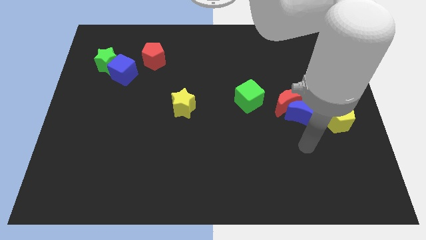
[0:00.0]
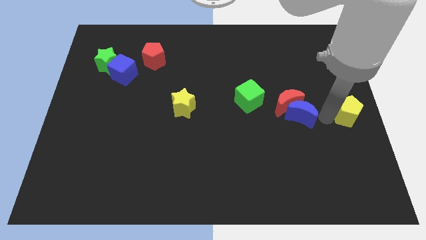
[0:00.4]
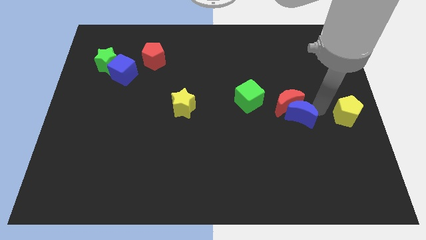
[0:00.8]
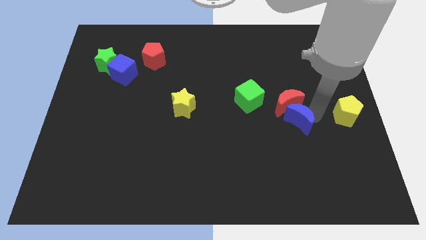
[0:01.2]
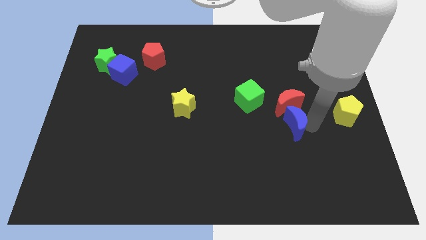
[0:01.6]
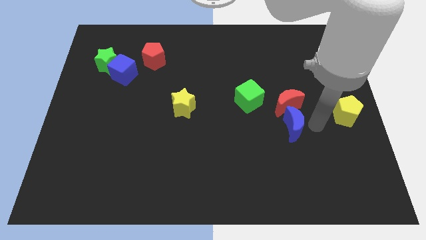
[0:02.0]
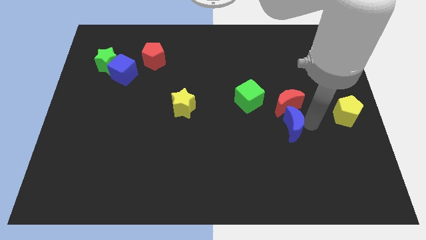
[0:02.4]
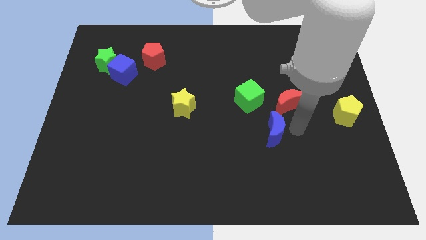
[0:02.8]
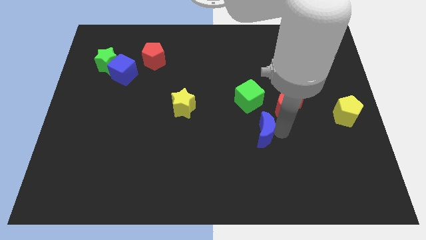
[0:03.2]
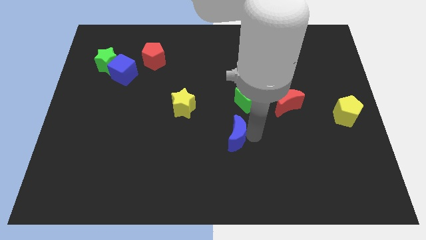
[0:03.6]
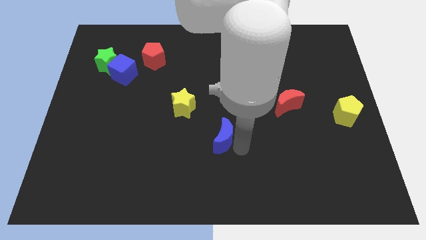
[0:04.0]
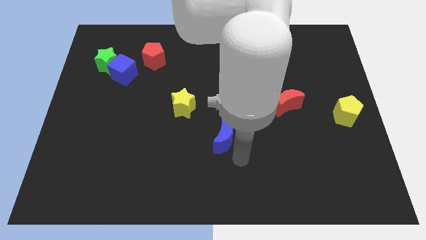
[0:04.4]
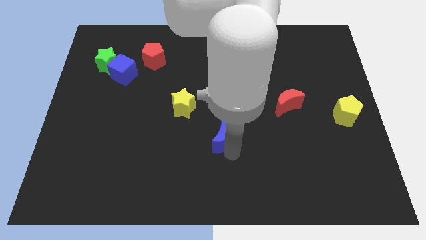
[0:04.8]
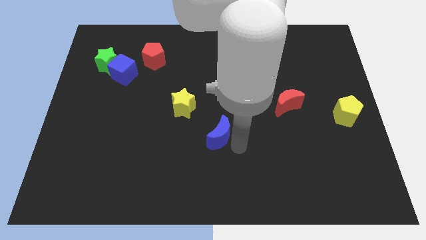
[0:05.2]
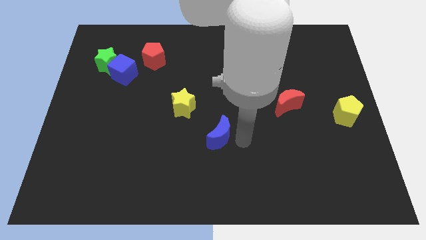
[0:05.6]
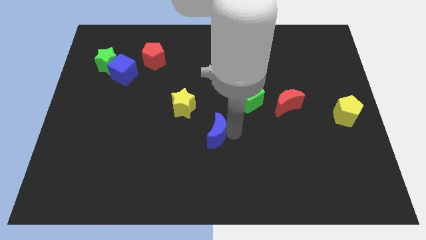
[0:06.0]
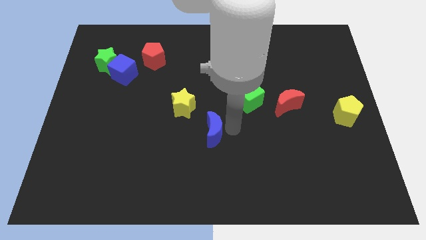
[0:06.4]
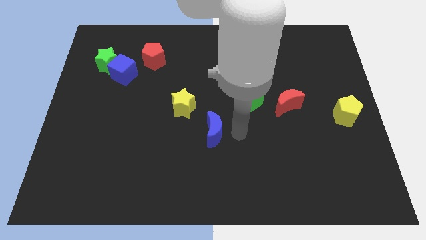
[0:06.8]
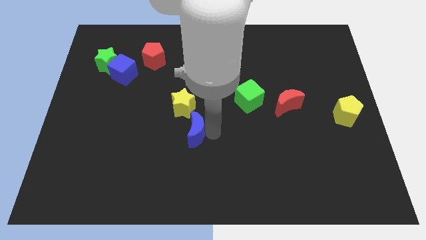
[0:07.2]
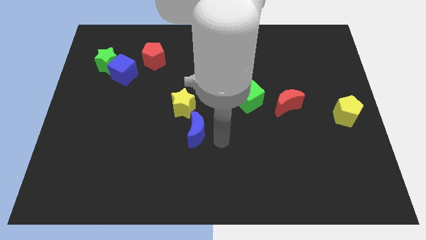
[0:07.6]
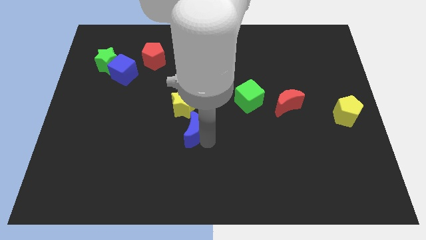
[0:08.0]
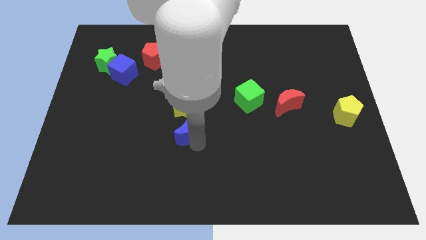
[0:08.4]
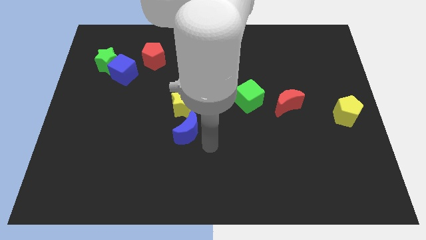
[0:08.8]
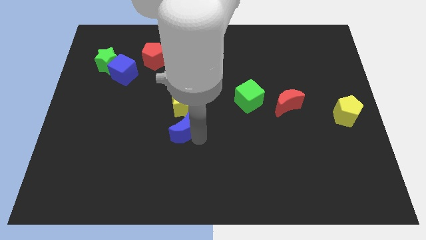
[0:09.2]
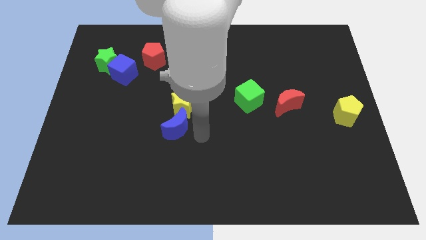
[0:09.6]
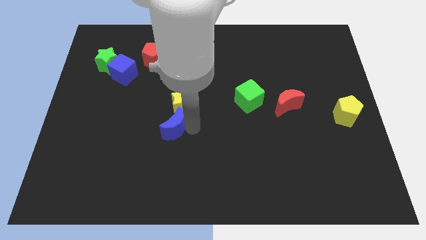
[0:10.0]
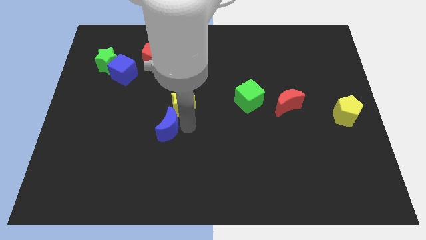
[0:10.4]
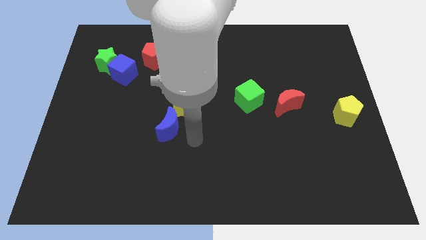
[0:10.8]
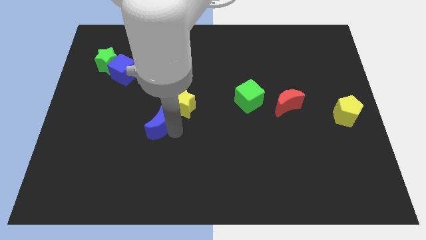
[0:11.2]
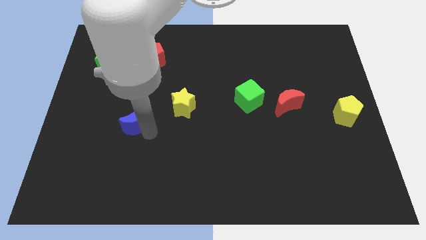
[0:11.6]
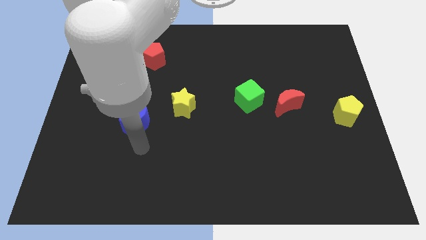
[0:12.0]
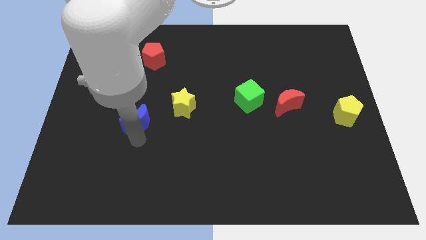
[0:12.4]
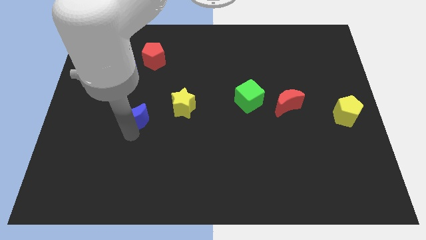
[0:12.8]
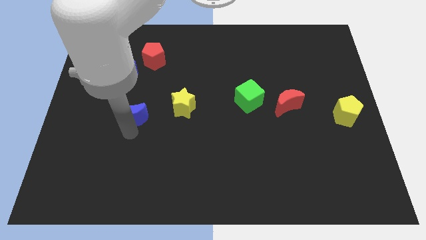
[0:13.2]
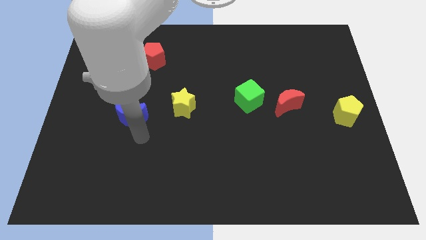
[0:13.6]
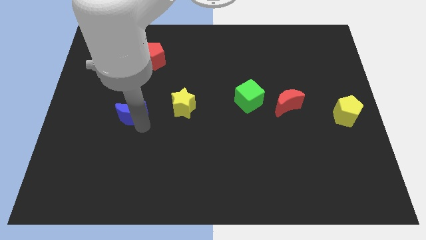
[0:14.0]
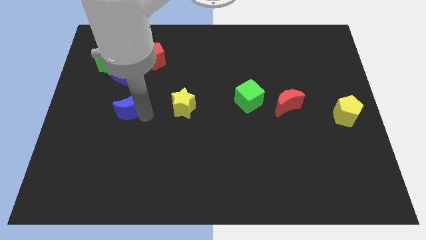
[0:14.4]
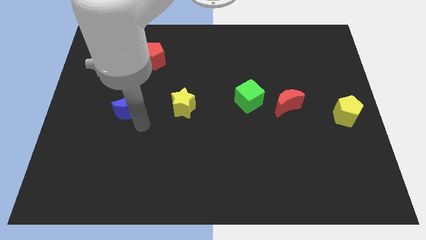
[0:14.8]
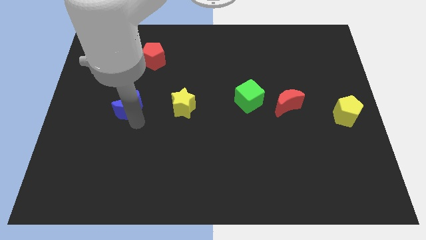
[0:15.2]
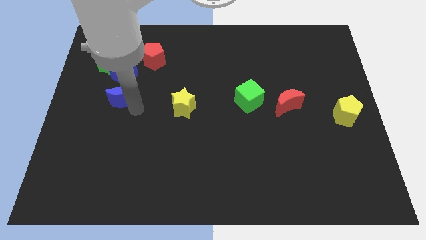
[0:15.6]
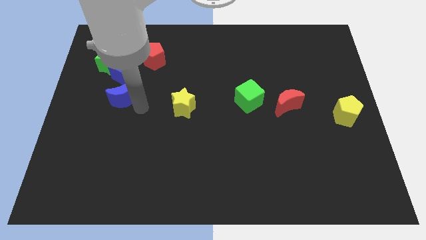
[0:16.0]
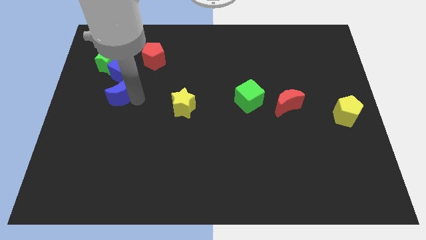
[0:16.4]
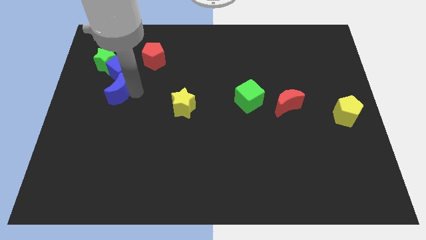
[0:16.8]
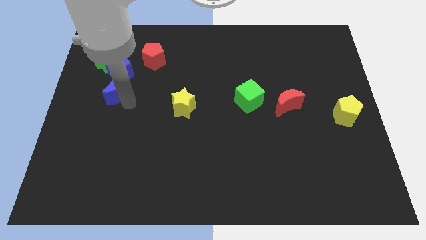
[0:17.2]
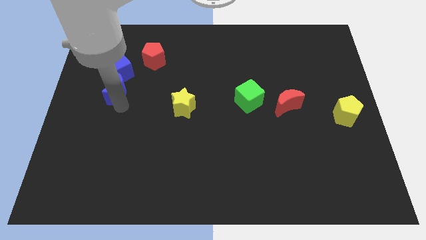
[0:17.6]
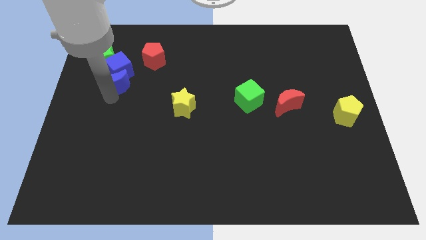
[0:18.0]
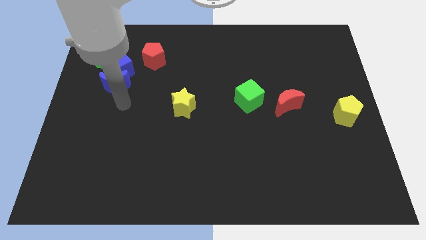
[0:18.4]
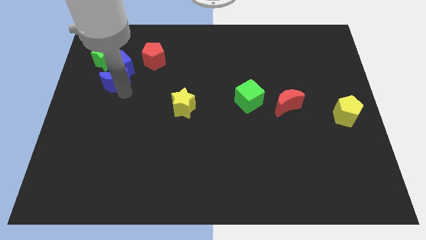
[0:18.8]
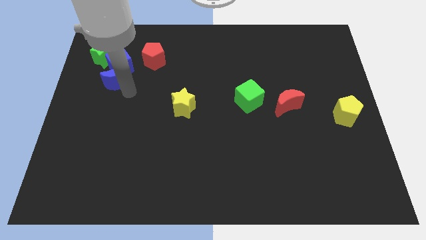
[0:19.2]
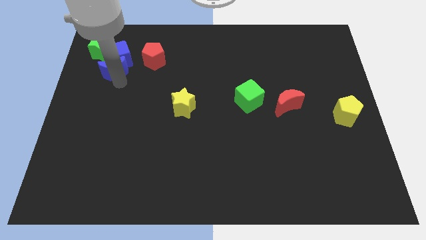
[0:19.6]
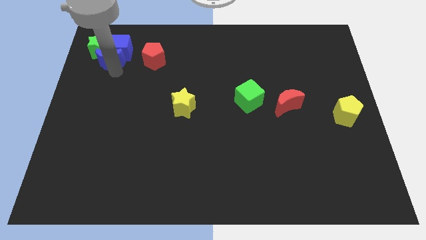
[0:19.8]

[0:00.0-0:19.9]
move the blue moon to the green star

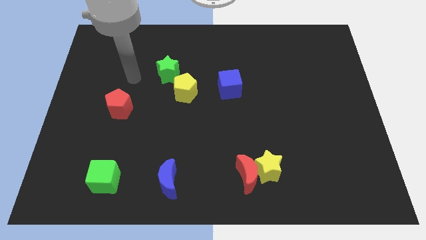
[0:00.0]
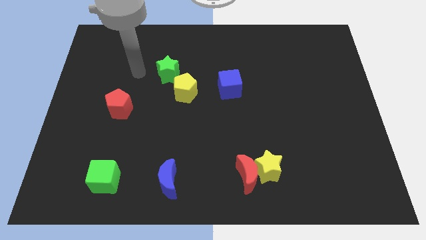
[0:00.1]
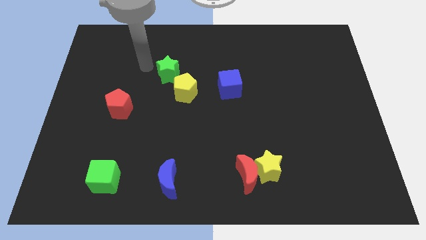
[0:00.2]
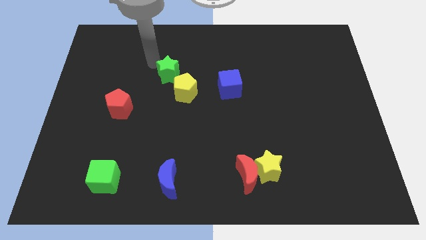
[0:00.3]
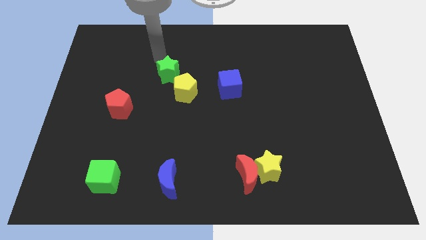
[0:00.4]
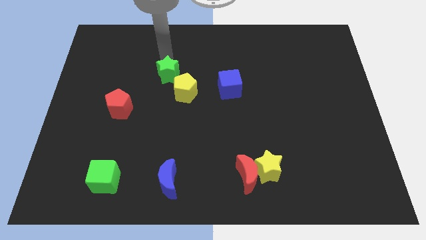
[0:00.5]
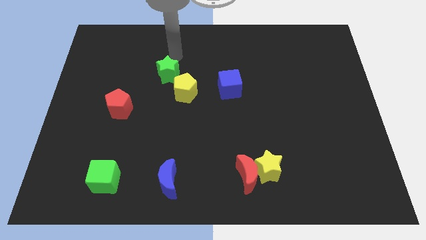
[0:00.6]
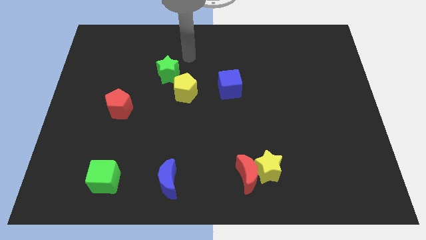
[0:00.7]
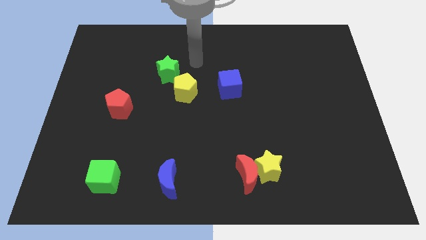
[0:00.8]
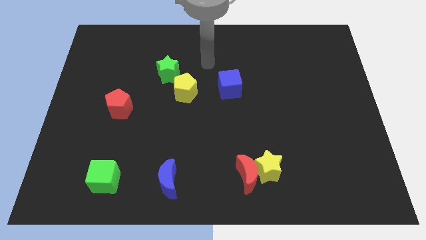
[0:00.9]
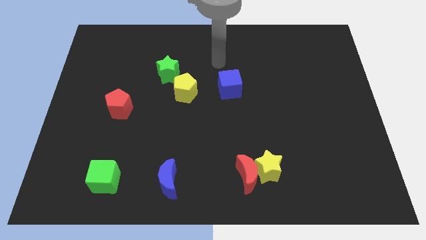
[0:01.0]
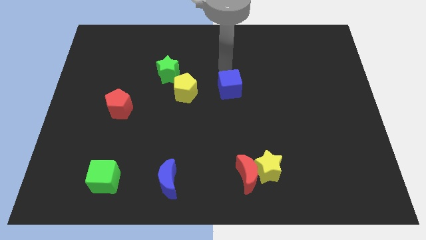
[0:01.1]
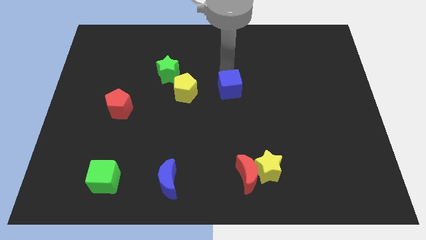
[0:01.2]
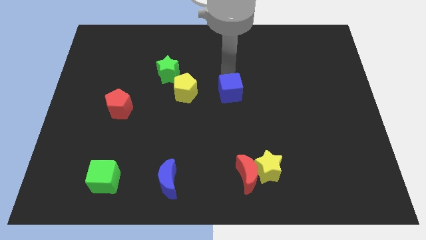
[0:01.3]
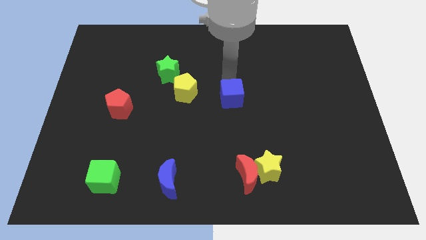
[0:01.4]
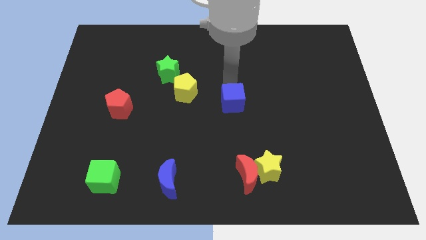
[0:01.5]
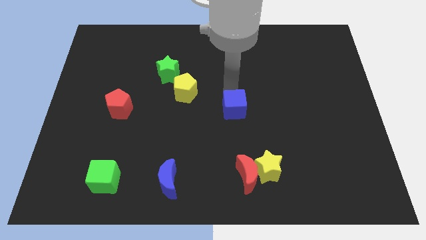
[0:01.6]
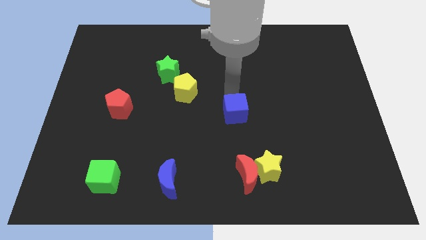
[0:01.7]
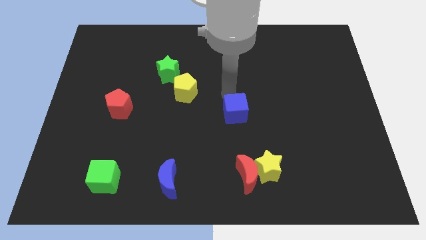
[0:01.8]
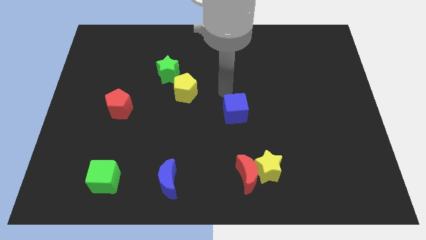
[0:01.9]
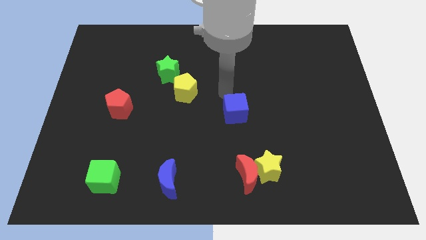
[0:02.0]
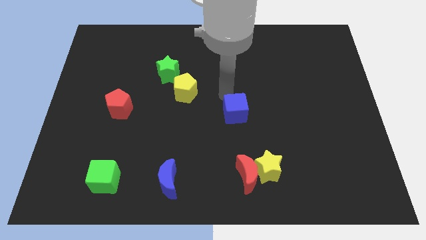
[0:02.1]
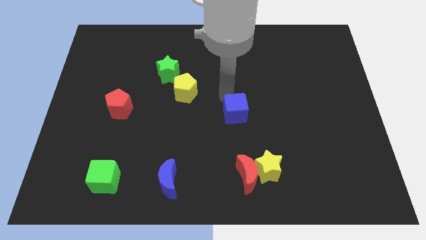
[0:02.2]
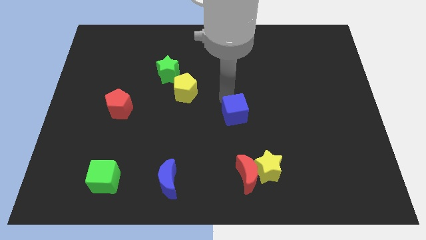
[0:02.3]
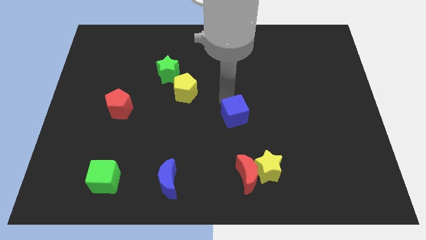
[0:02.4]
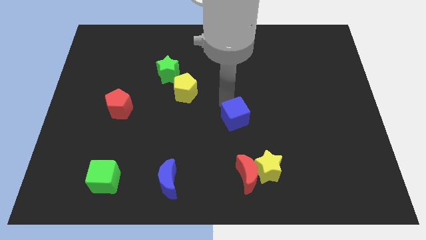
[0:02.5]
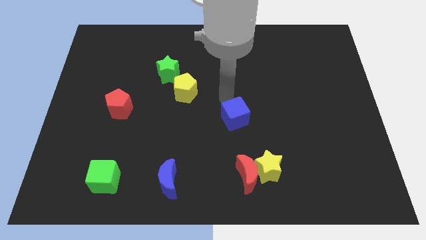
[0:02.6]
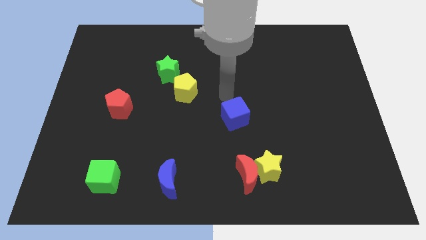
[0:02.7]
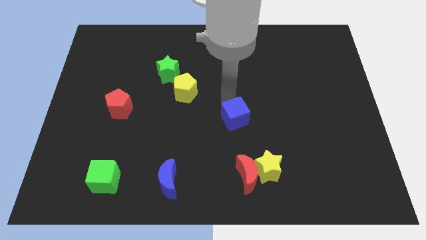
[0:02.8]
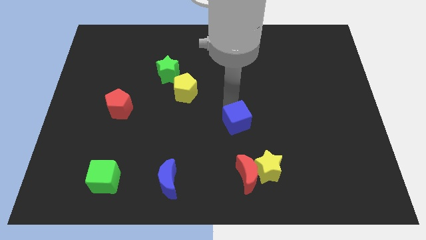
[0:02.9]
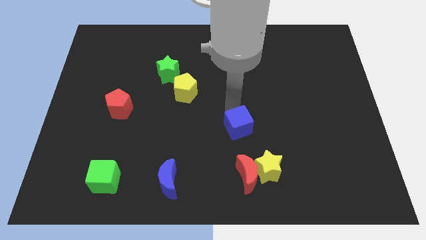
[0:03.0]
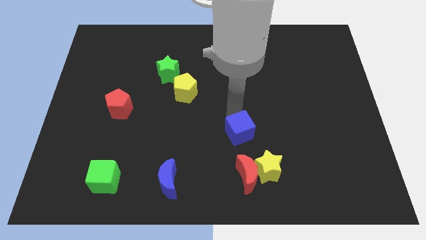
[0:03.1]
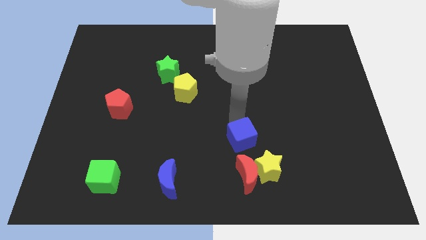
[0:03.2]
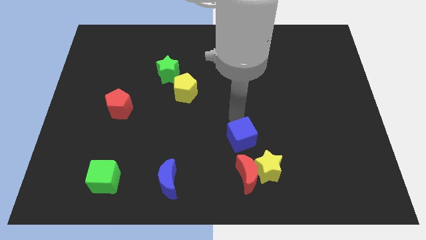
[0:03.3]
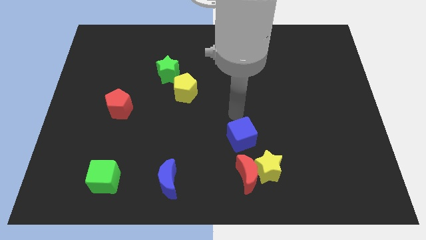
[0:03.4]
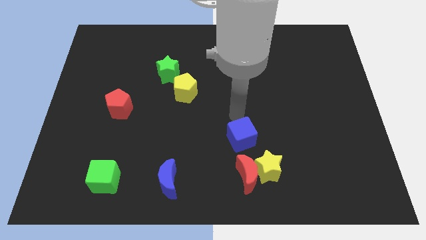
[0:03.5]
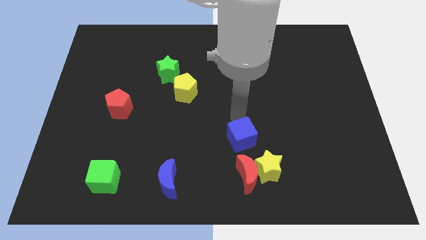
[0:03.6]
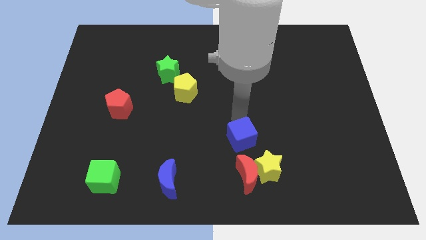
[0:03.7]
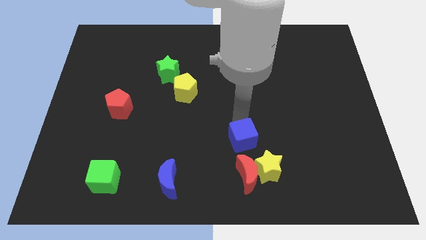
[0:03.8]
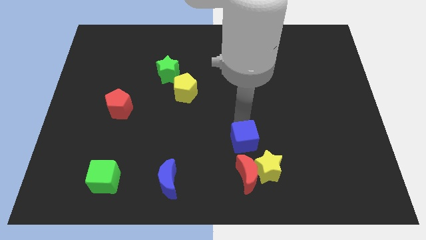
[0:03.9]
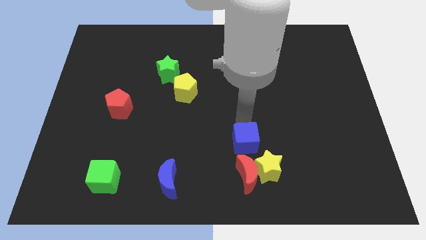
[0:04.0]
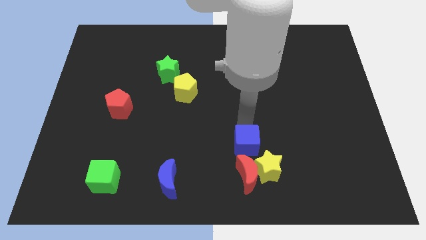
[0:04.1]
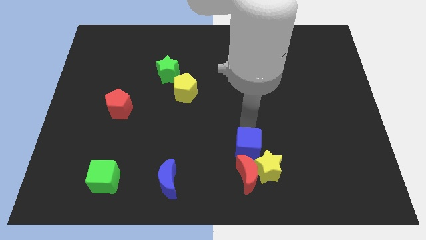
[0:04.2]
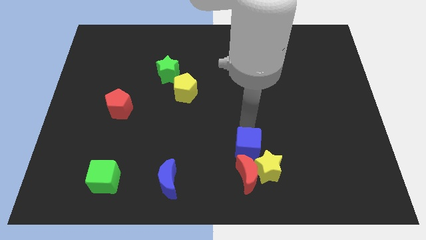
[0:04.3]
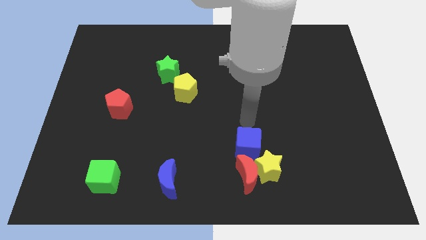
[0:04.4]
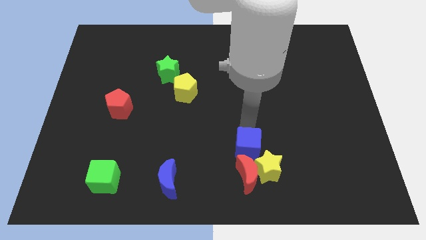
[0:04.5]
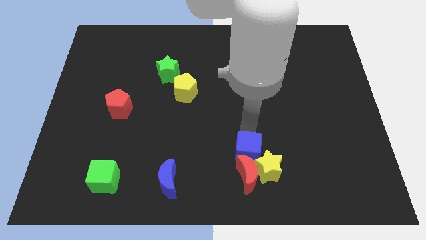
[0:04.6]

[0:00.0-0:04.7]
move the blue cube close to the red moon
